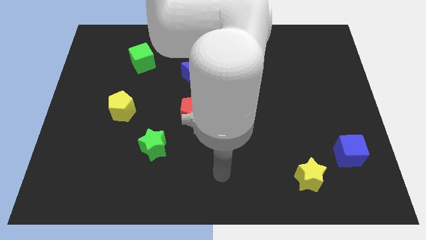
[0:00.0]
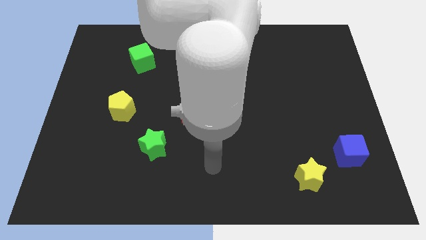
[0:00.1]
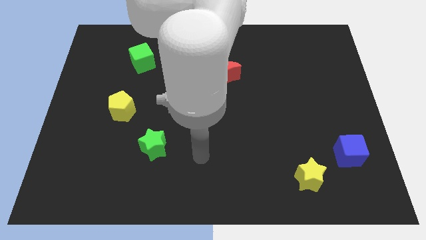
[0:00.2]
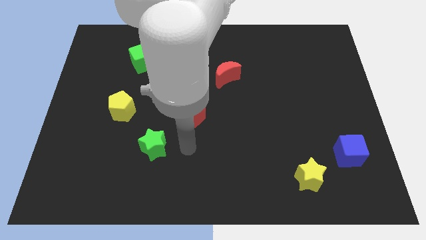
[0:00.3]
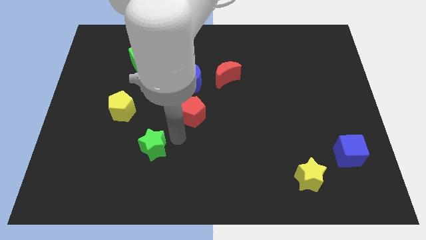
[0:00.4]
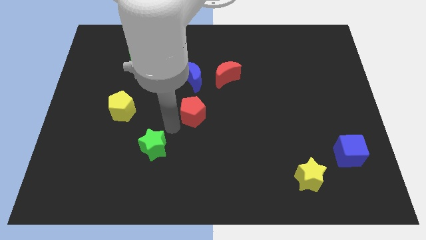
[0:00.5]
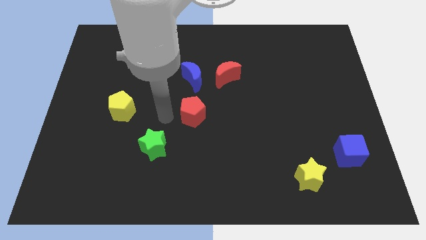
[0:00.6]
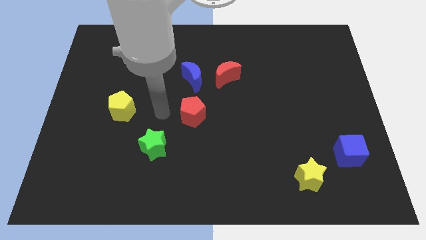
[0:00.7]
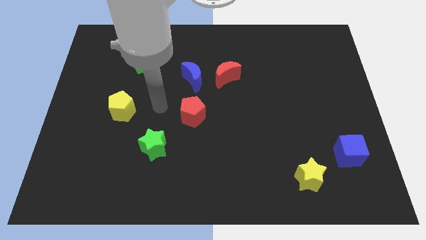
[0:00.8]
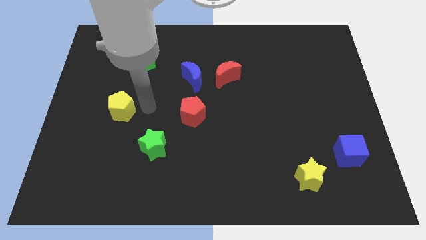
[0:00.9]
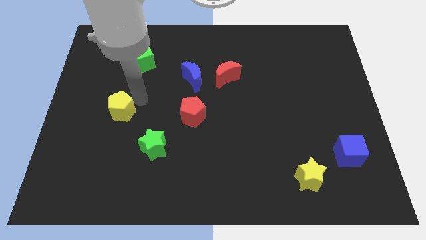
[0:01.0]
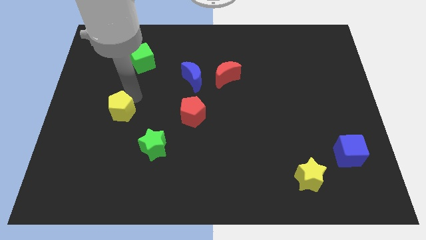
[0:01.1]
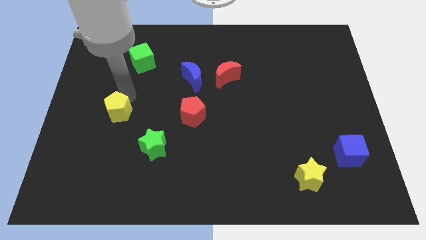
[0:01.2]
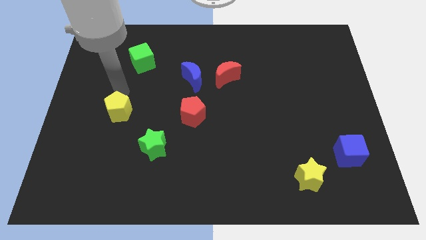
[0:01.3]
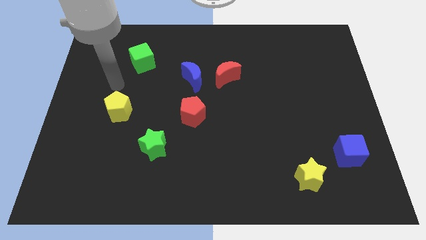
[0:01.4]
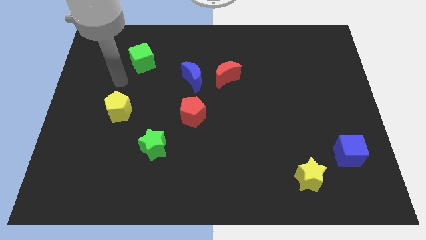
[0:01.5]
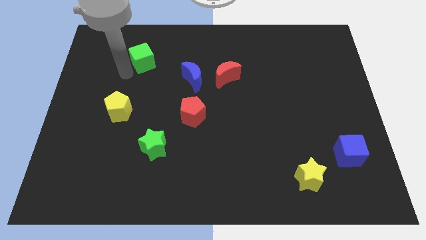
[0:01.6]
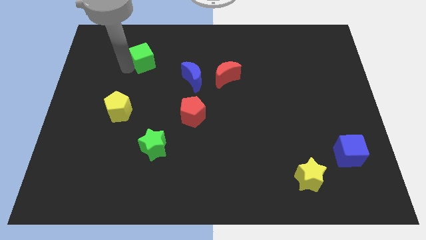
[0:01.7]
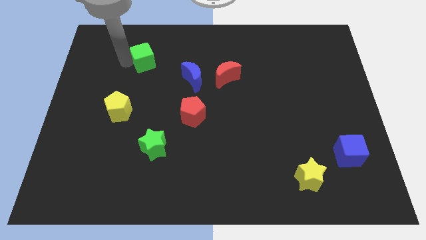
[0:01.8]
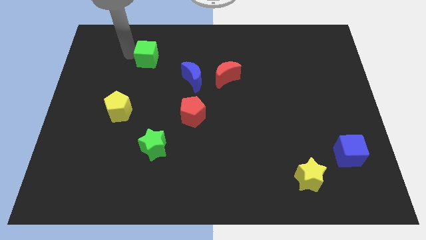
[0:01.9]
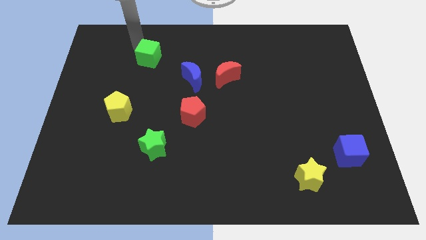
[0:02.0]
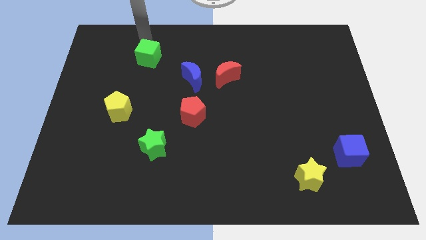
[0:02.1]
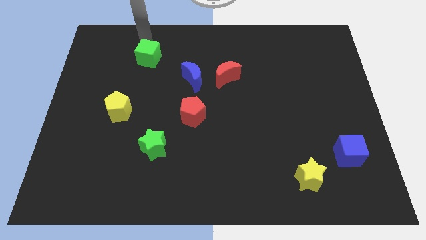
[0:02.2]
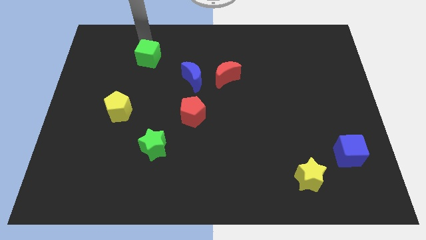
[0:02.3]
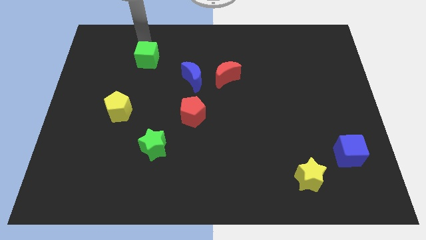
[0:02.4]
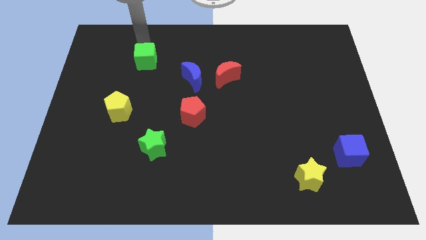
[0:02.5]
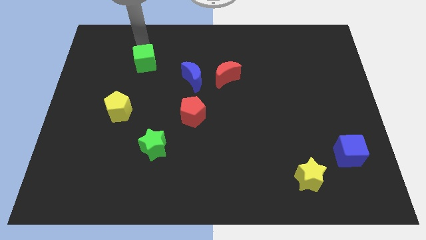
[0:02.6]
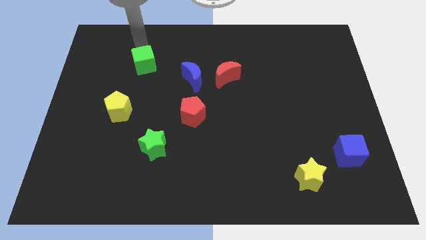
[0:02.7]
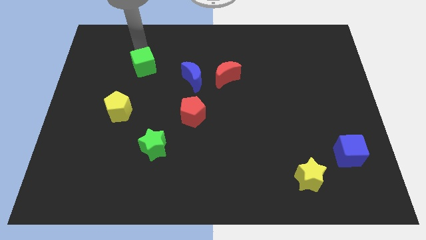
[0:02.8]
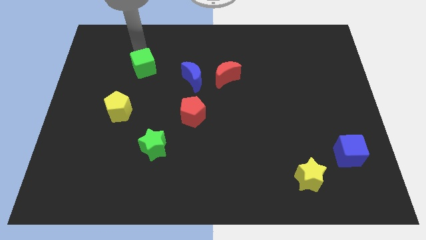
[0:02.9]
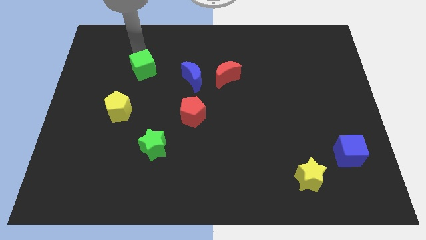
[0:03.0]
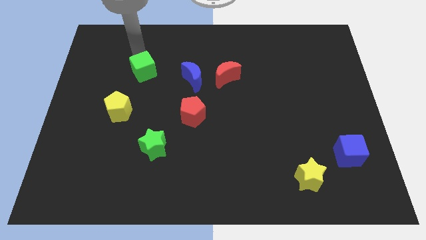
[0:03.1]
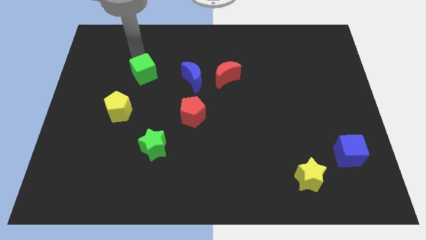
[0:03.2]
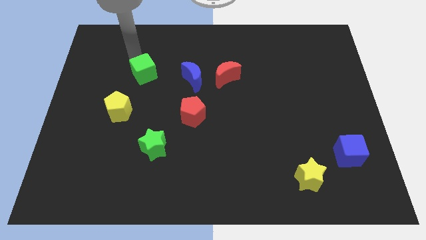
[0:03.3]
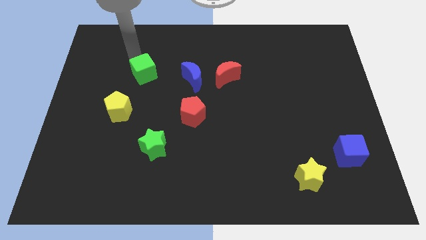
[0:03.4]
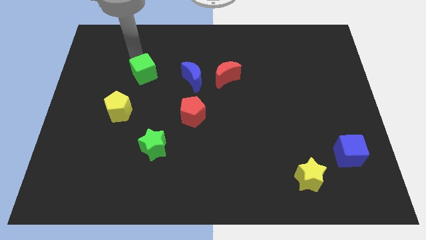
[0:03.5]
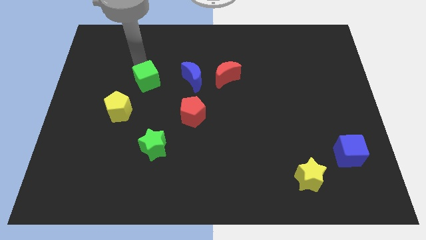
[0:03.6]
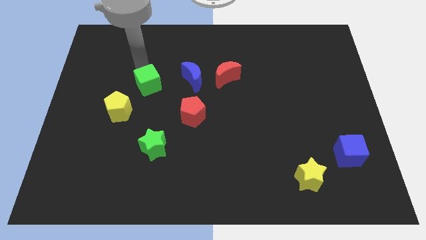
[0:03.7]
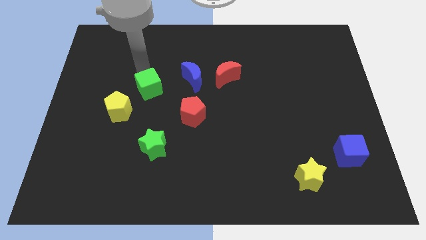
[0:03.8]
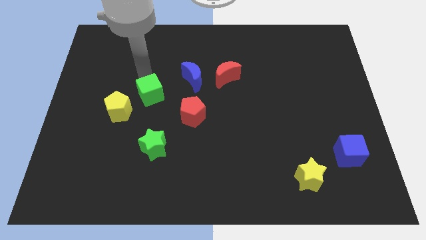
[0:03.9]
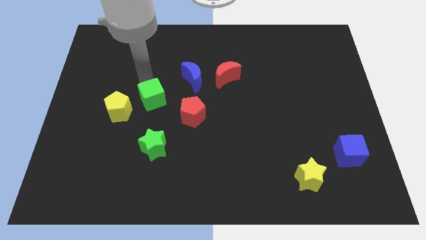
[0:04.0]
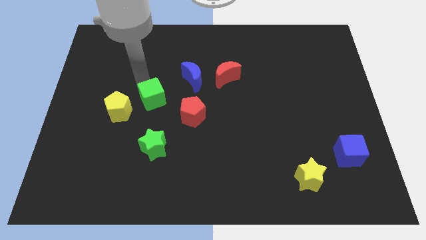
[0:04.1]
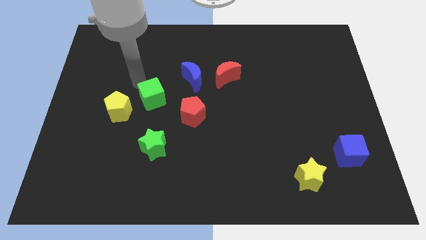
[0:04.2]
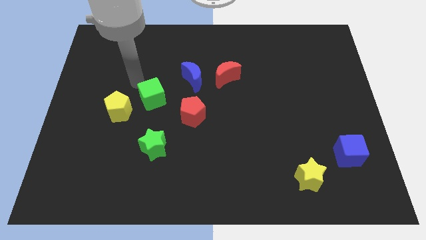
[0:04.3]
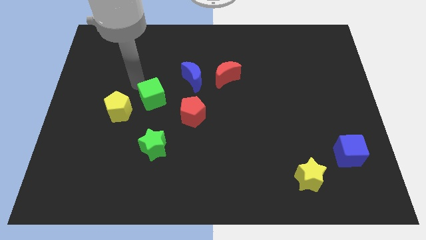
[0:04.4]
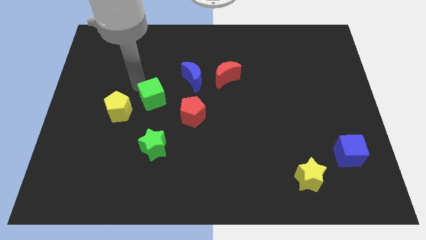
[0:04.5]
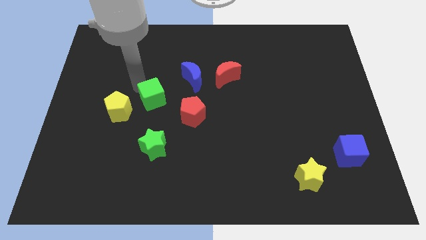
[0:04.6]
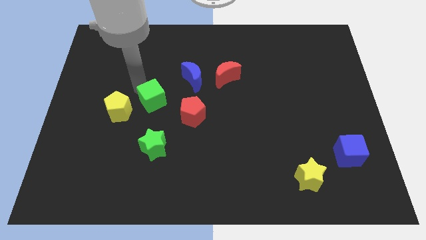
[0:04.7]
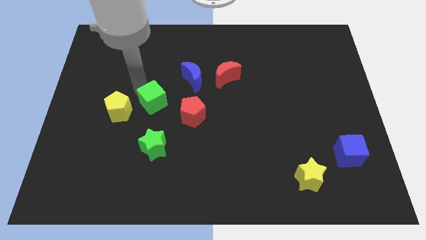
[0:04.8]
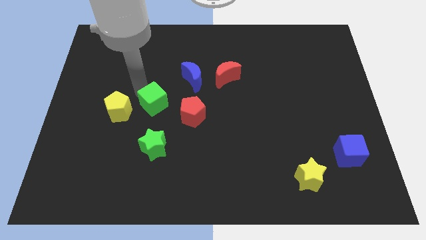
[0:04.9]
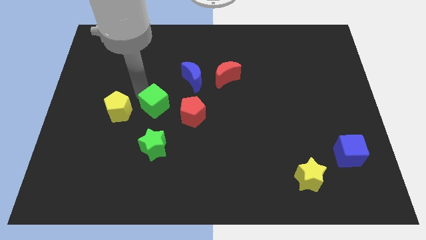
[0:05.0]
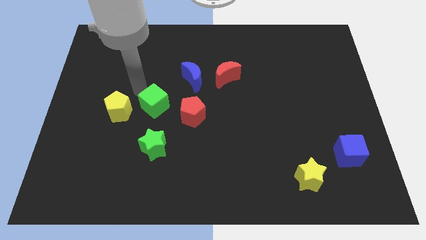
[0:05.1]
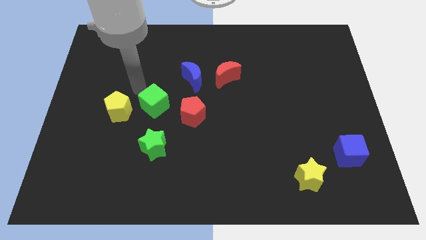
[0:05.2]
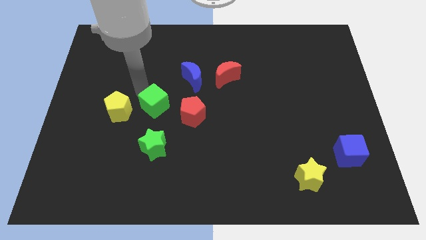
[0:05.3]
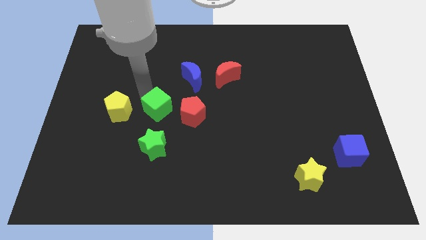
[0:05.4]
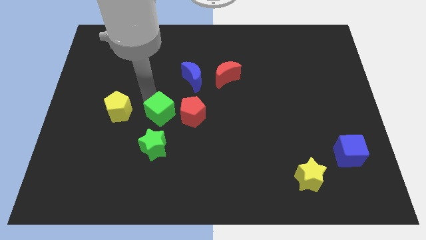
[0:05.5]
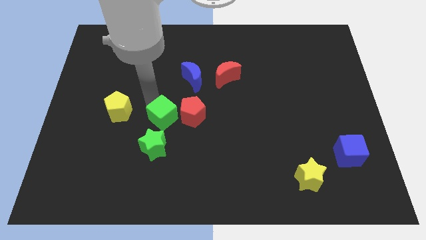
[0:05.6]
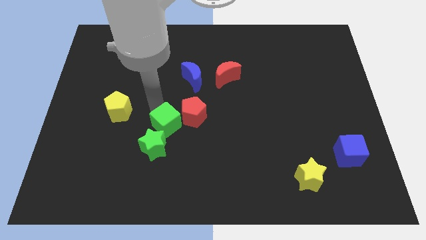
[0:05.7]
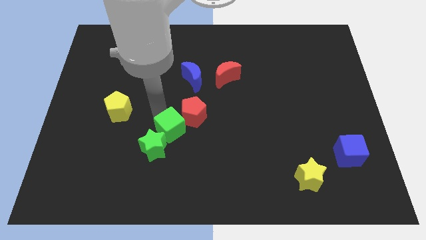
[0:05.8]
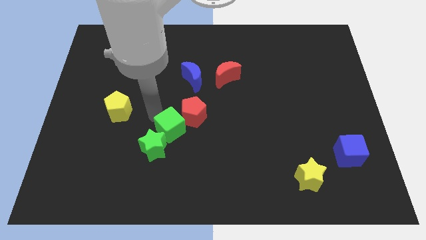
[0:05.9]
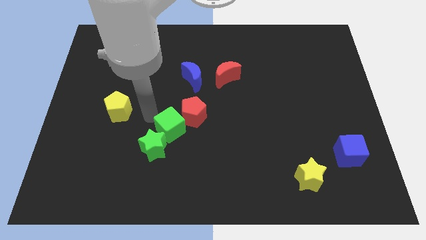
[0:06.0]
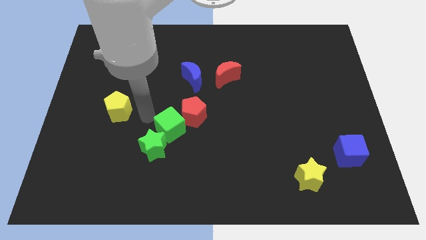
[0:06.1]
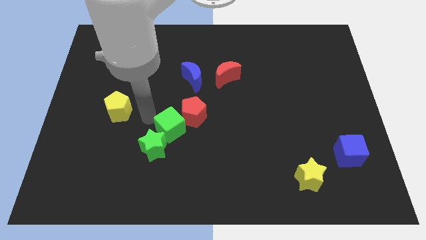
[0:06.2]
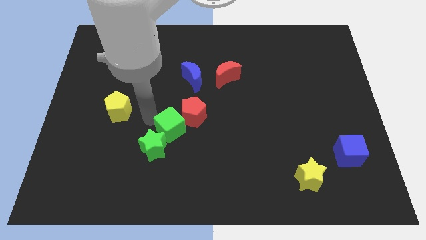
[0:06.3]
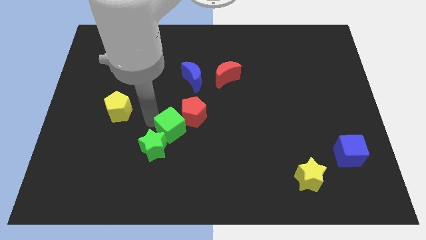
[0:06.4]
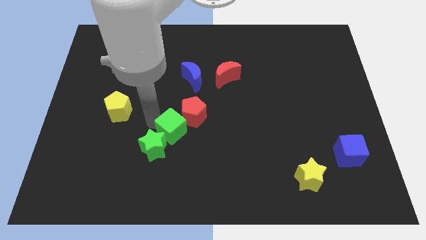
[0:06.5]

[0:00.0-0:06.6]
move the green cube to the right side of the green star

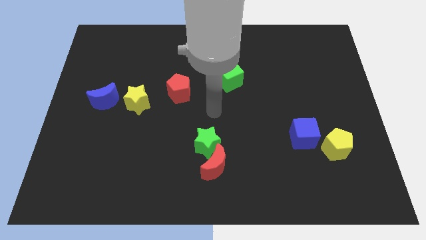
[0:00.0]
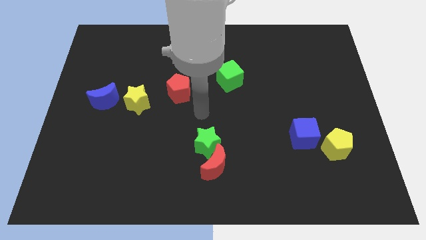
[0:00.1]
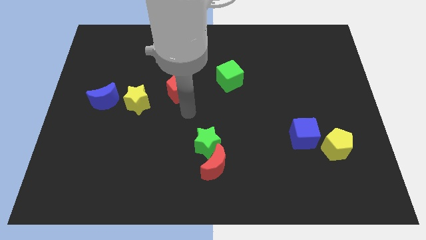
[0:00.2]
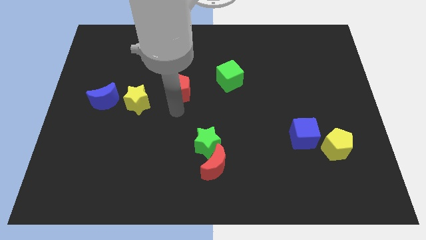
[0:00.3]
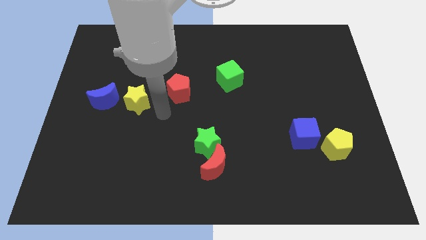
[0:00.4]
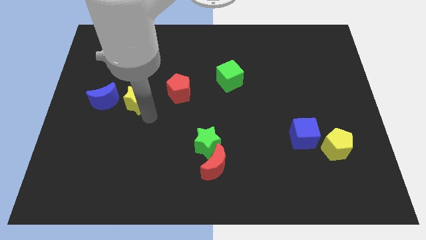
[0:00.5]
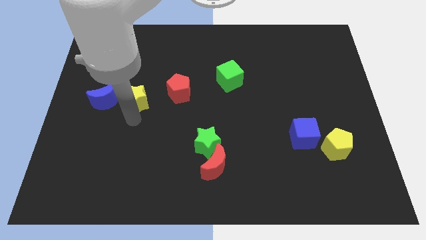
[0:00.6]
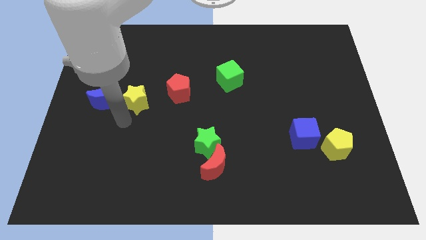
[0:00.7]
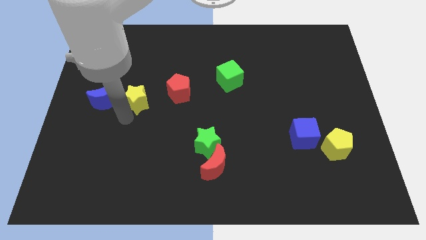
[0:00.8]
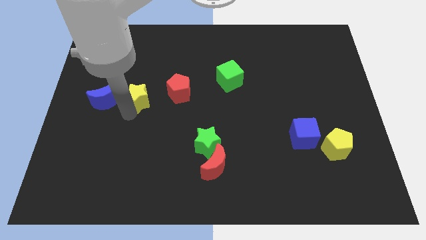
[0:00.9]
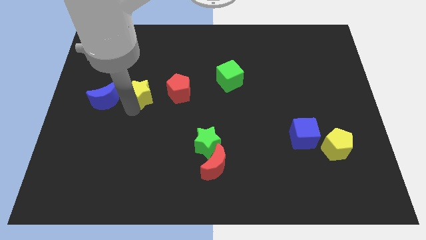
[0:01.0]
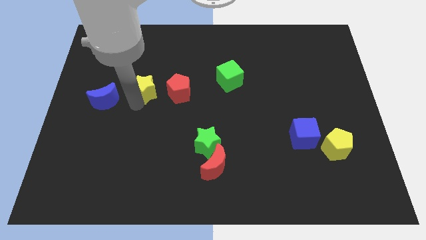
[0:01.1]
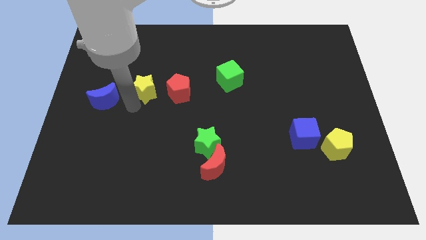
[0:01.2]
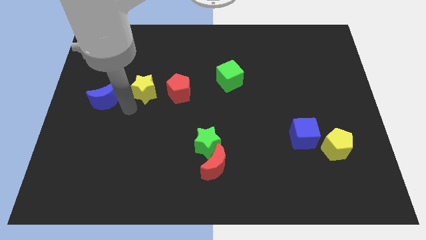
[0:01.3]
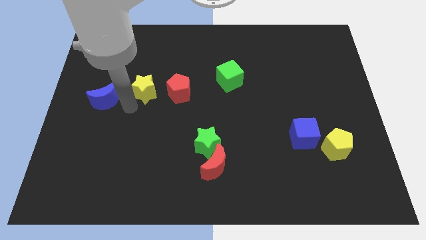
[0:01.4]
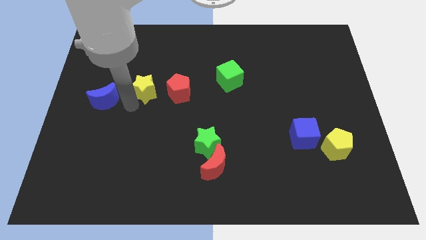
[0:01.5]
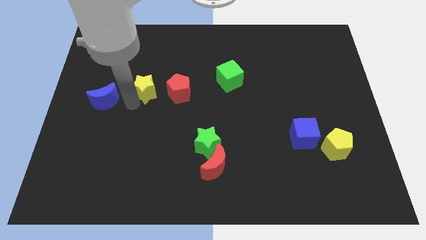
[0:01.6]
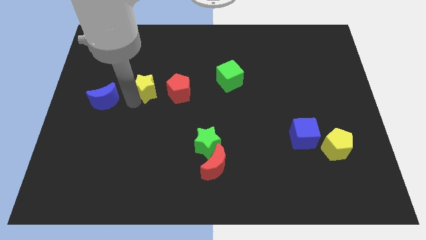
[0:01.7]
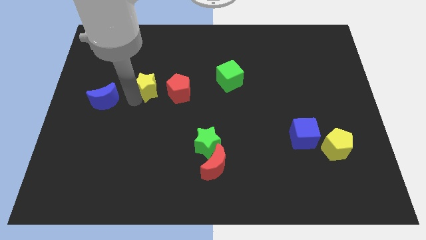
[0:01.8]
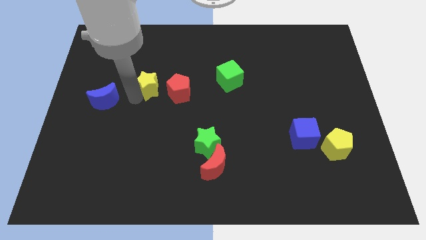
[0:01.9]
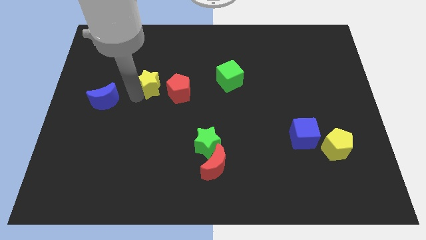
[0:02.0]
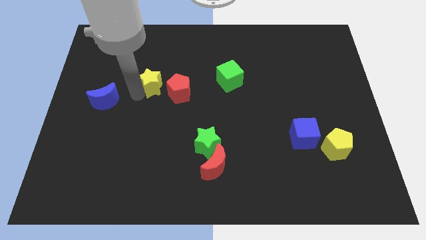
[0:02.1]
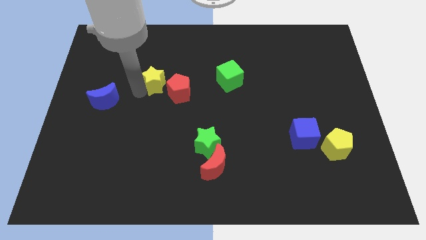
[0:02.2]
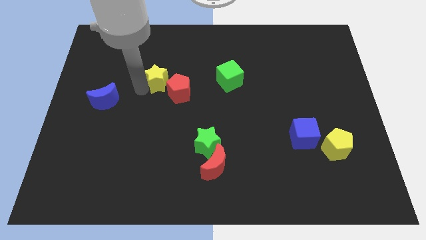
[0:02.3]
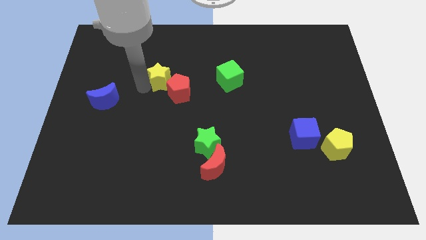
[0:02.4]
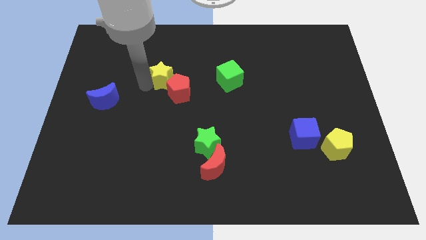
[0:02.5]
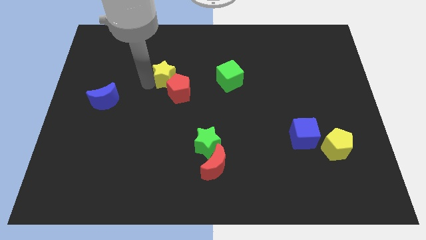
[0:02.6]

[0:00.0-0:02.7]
move the yellow star left of the green cube
